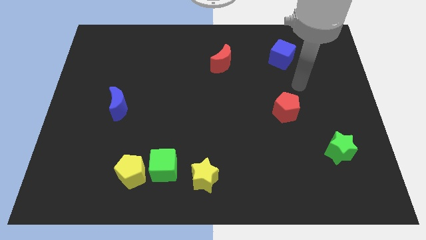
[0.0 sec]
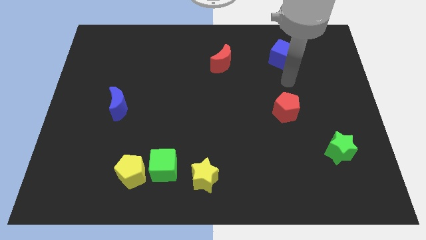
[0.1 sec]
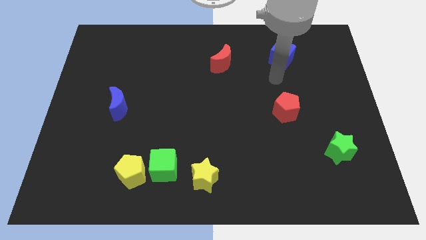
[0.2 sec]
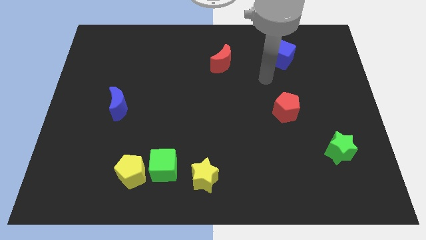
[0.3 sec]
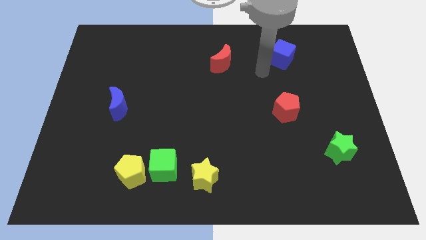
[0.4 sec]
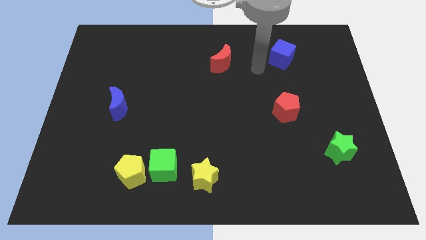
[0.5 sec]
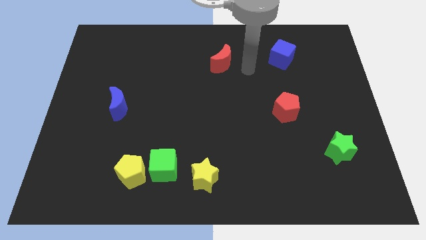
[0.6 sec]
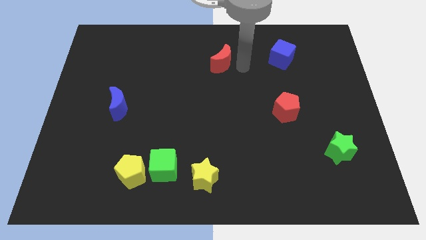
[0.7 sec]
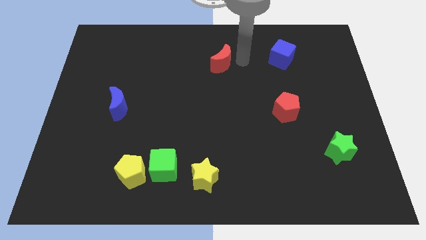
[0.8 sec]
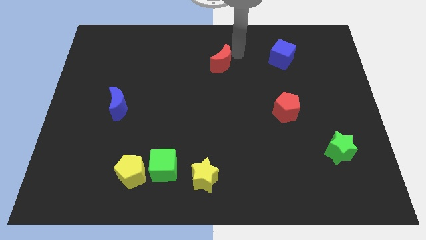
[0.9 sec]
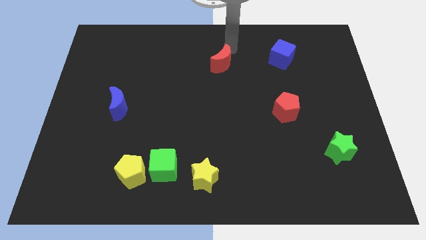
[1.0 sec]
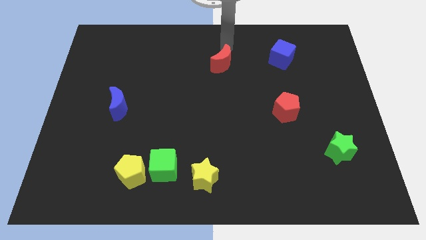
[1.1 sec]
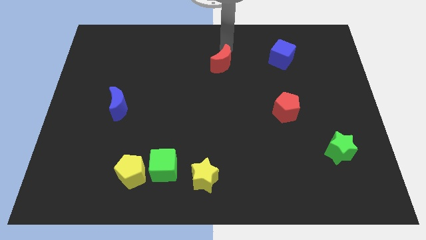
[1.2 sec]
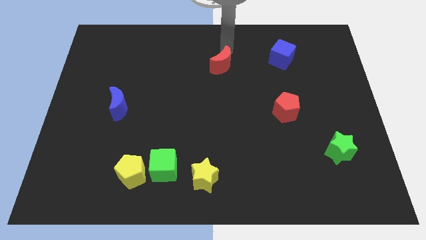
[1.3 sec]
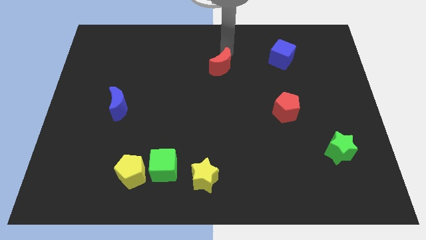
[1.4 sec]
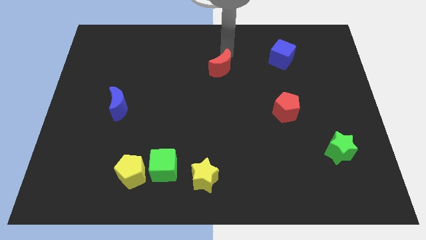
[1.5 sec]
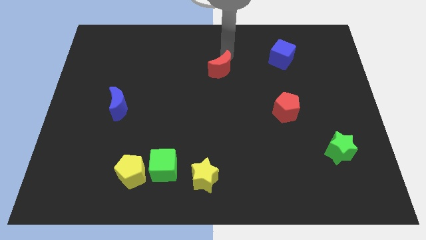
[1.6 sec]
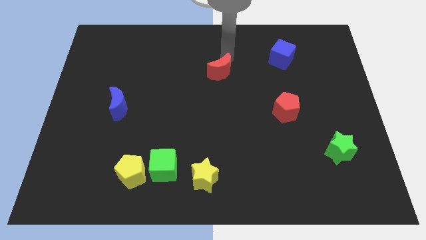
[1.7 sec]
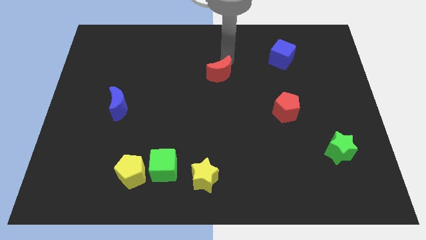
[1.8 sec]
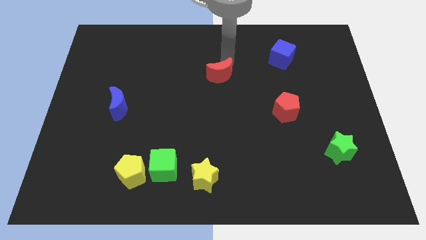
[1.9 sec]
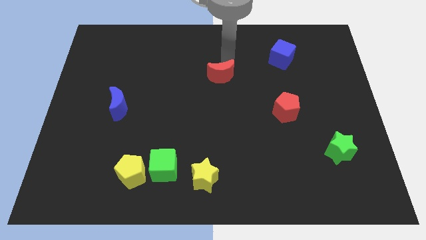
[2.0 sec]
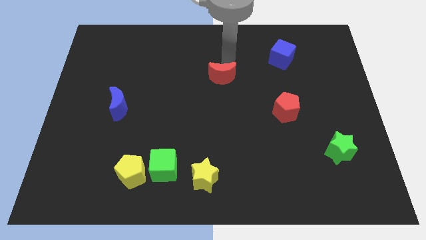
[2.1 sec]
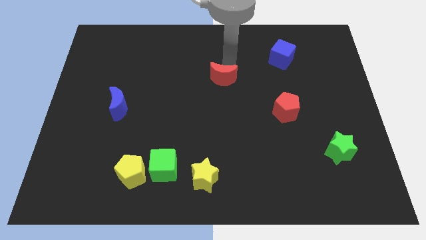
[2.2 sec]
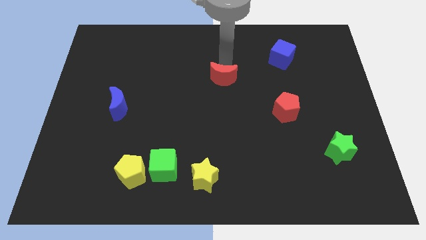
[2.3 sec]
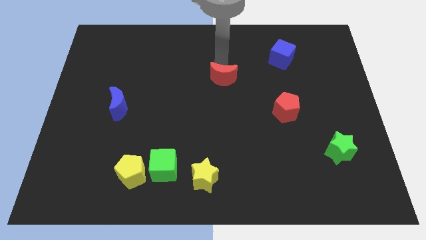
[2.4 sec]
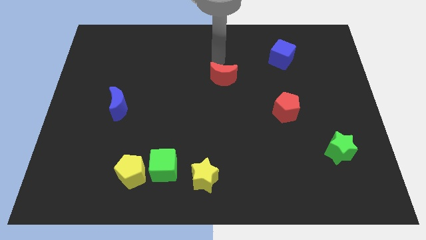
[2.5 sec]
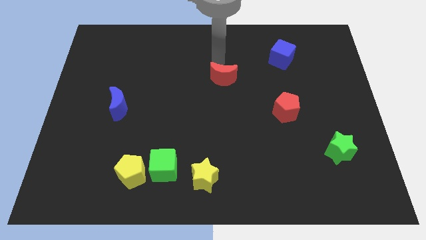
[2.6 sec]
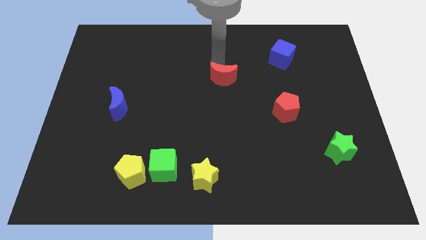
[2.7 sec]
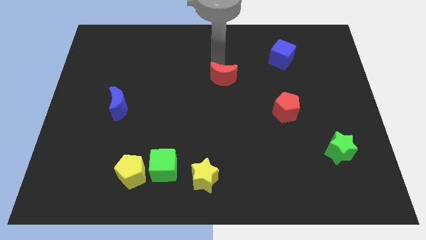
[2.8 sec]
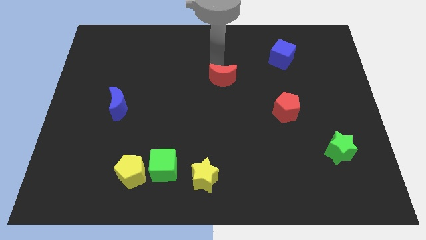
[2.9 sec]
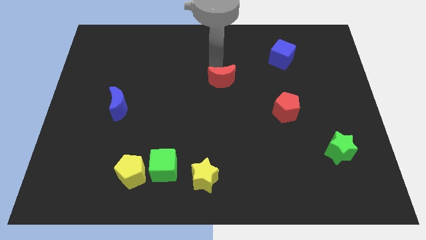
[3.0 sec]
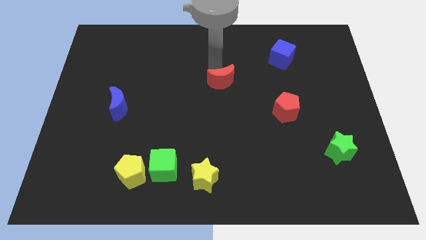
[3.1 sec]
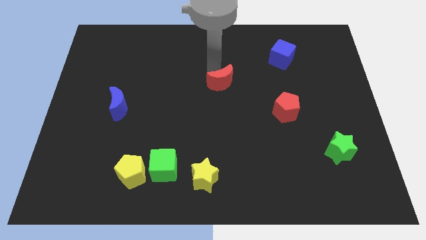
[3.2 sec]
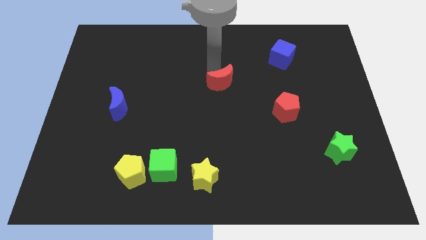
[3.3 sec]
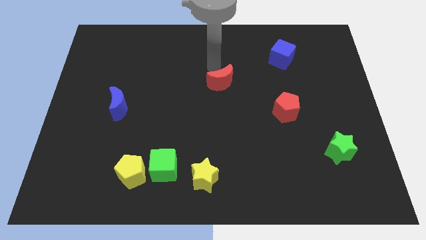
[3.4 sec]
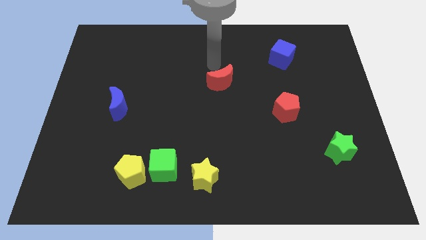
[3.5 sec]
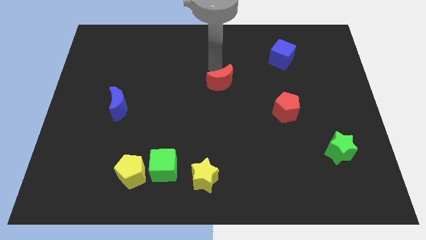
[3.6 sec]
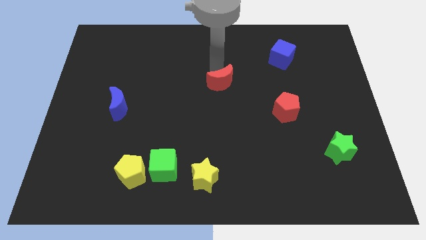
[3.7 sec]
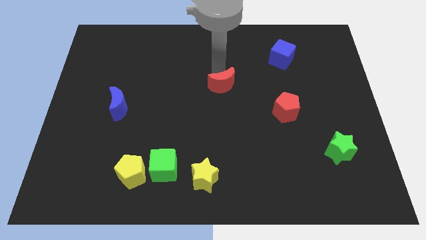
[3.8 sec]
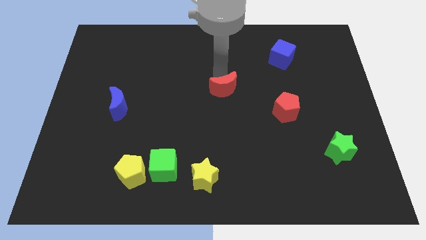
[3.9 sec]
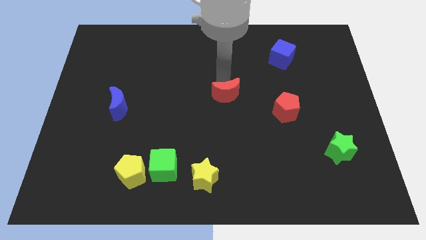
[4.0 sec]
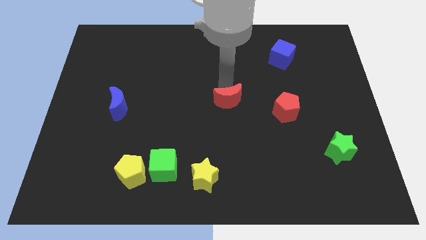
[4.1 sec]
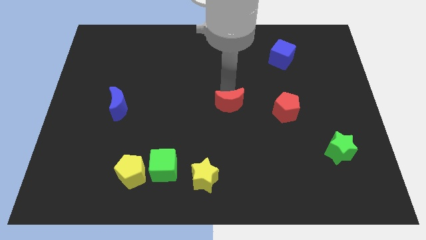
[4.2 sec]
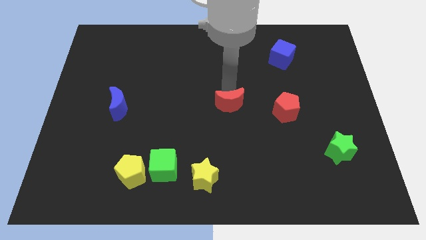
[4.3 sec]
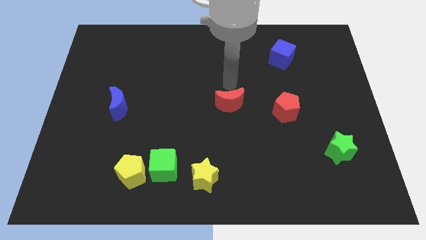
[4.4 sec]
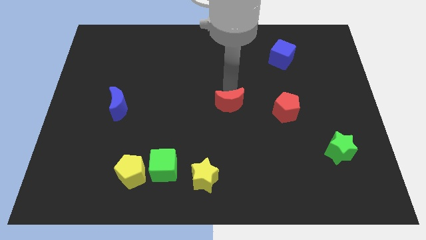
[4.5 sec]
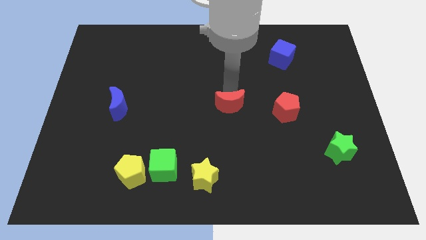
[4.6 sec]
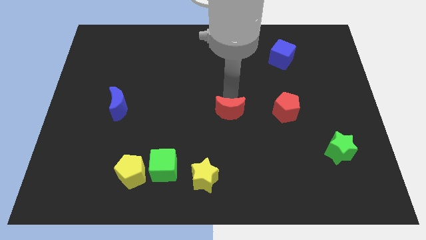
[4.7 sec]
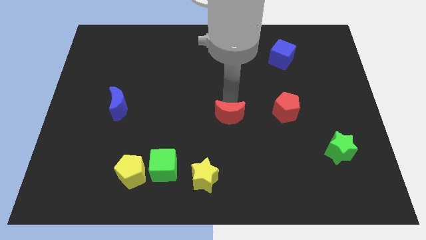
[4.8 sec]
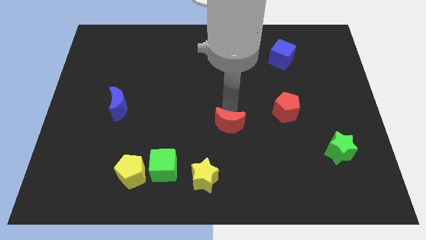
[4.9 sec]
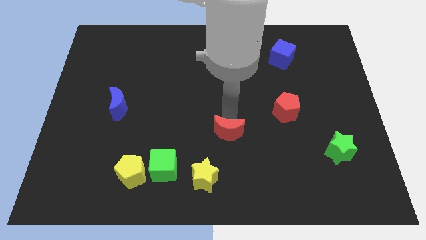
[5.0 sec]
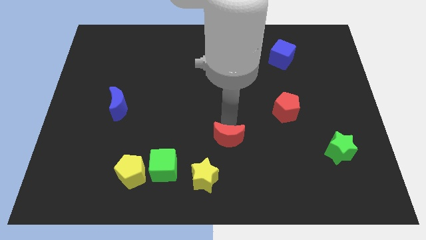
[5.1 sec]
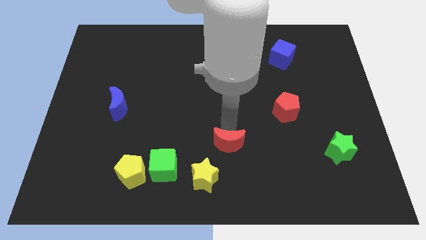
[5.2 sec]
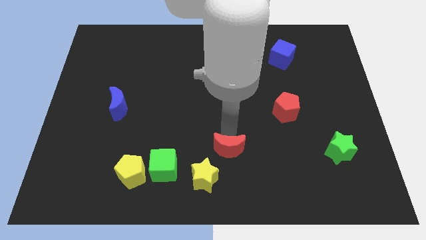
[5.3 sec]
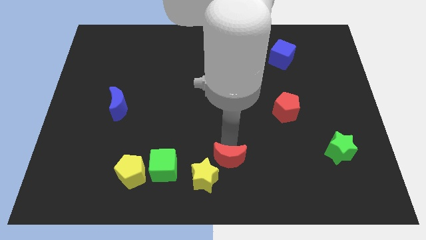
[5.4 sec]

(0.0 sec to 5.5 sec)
push the red moon to the bottom side

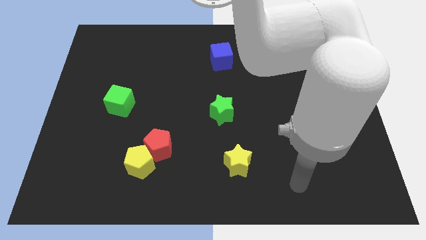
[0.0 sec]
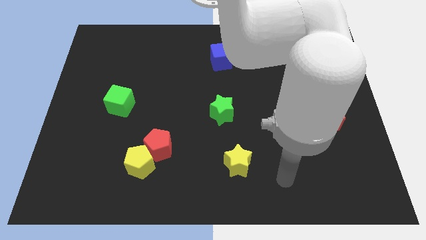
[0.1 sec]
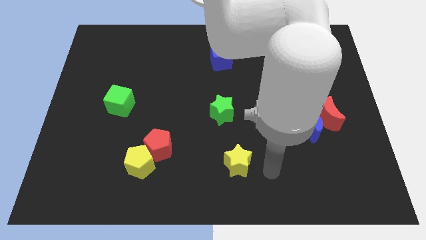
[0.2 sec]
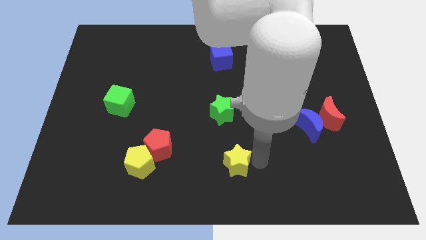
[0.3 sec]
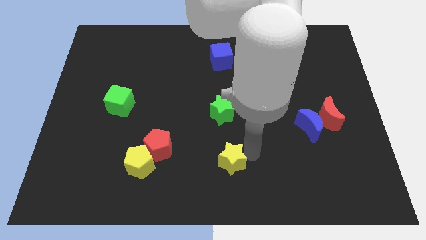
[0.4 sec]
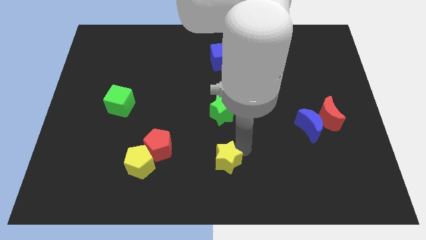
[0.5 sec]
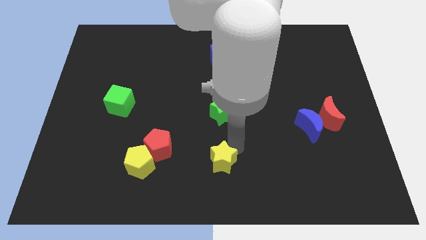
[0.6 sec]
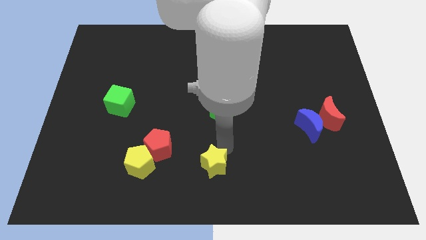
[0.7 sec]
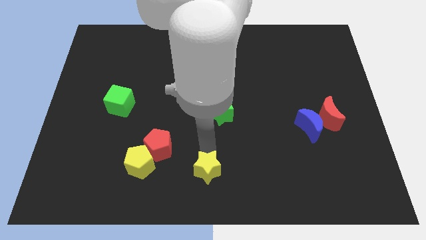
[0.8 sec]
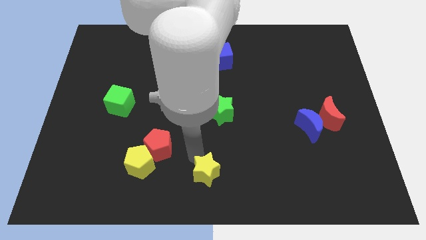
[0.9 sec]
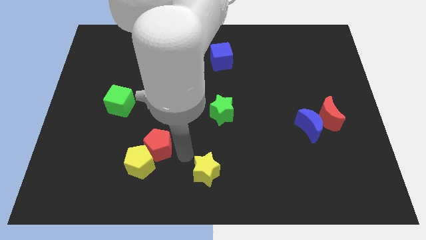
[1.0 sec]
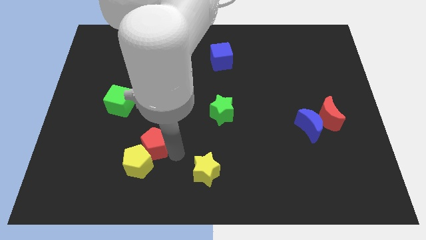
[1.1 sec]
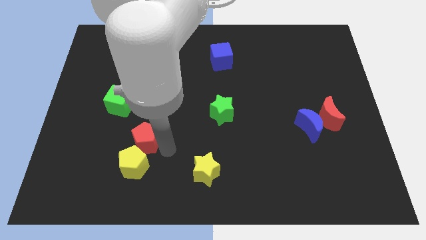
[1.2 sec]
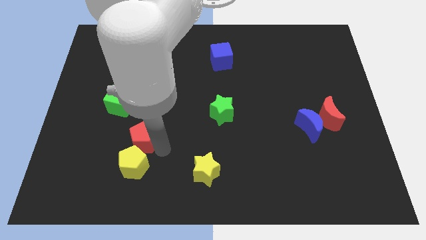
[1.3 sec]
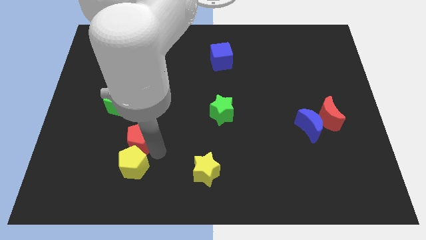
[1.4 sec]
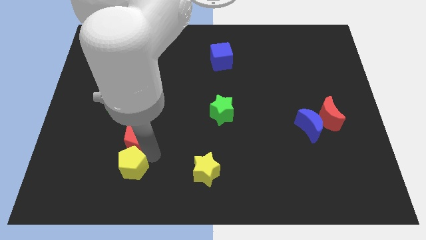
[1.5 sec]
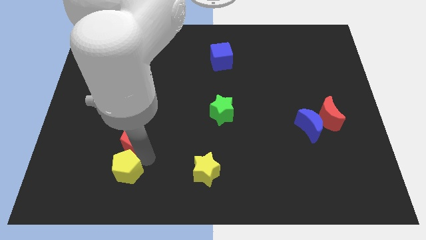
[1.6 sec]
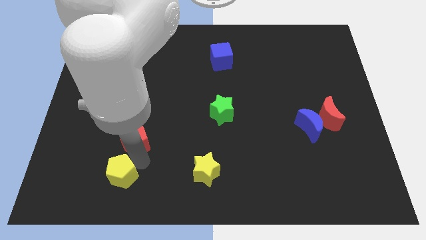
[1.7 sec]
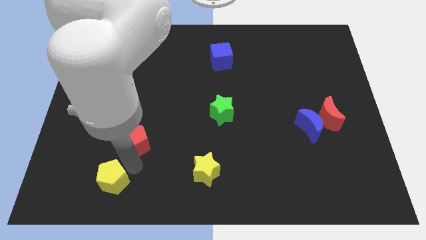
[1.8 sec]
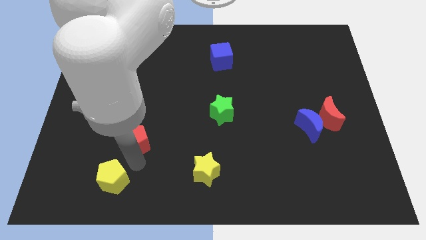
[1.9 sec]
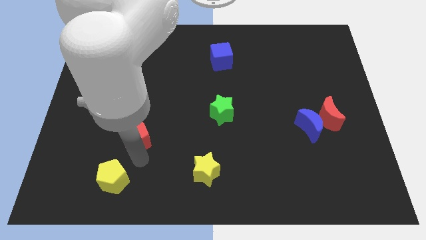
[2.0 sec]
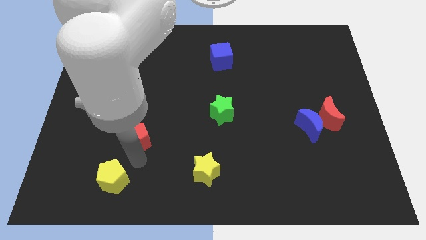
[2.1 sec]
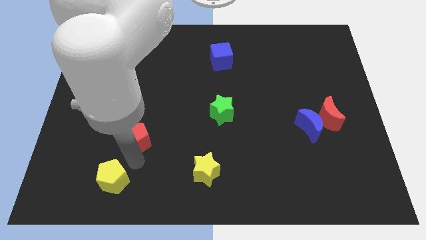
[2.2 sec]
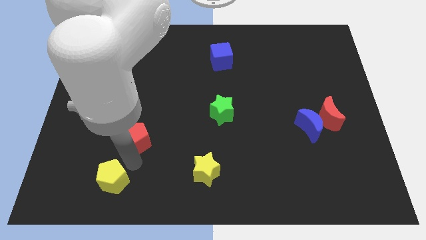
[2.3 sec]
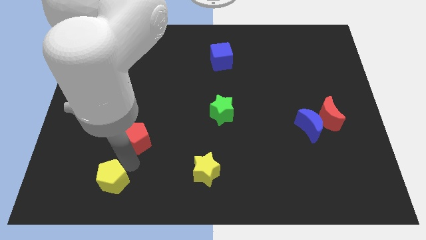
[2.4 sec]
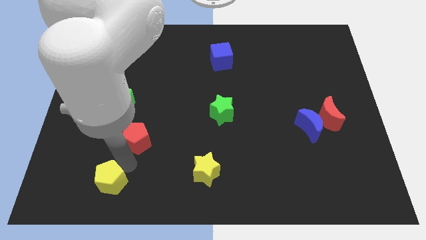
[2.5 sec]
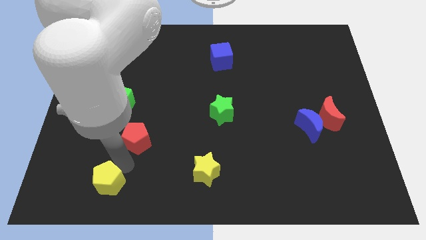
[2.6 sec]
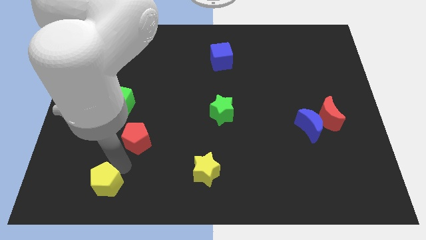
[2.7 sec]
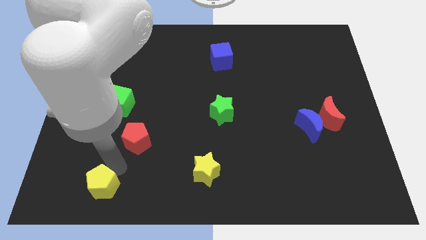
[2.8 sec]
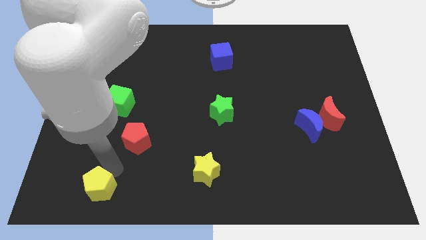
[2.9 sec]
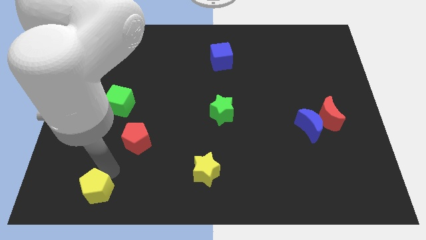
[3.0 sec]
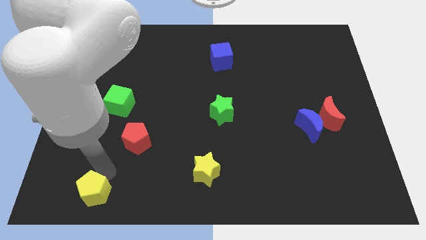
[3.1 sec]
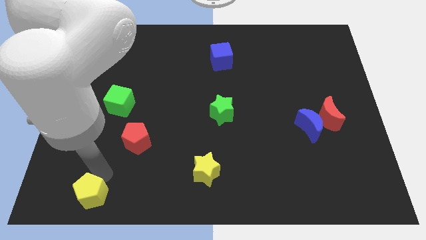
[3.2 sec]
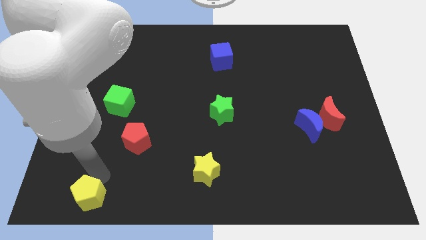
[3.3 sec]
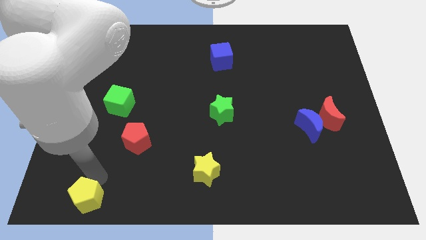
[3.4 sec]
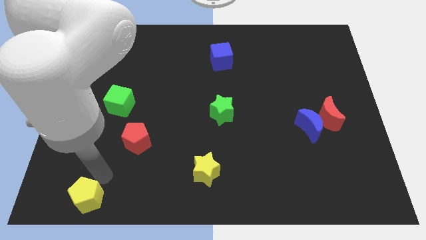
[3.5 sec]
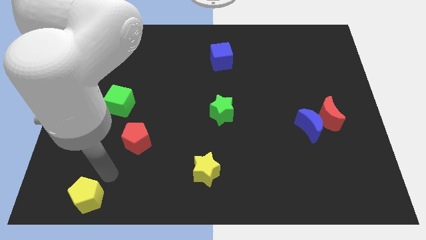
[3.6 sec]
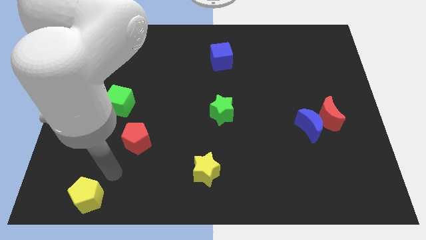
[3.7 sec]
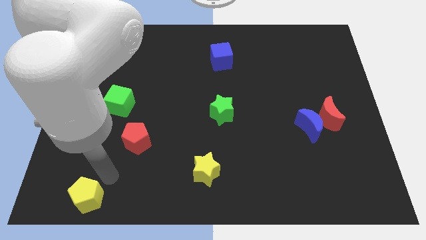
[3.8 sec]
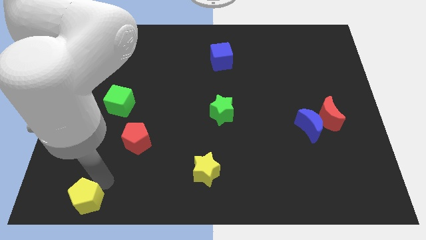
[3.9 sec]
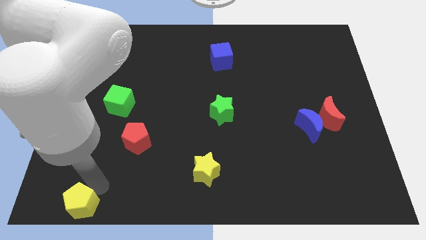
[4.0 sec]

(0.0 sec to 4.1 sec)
push the yellow pentagon to the bottom left of the board
